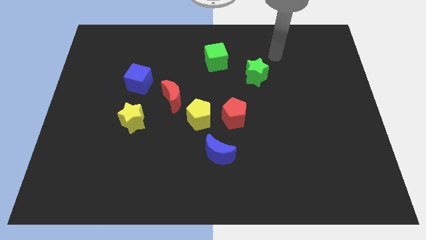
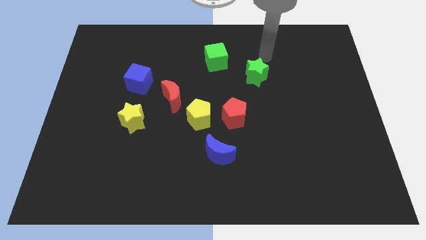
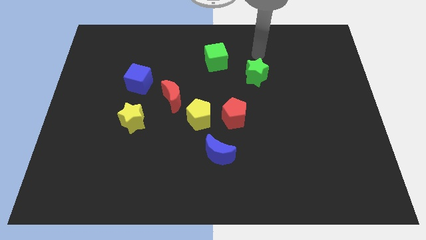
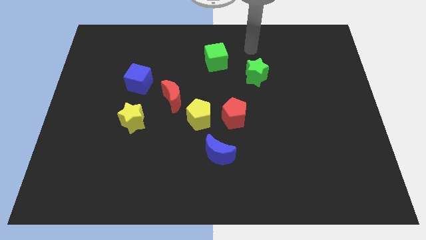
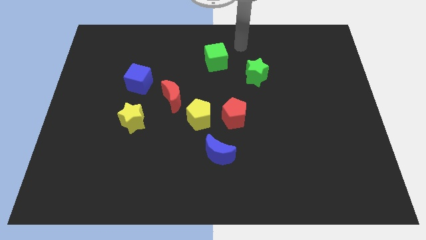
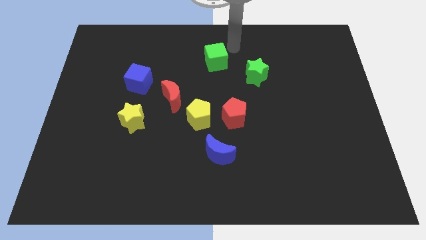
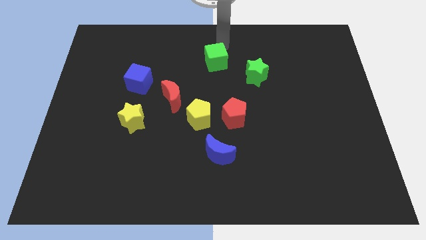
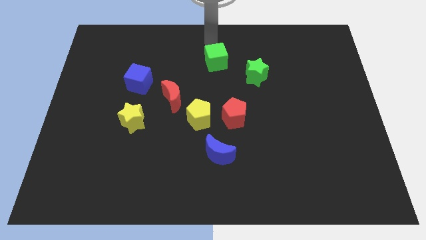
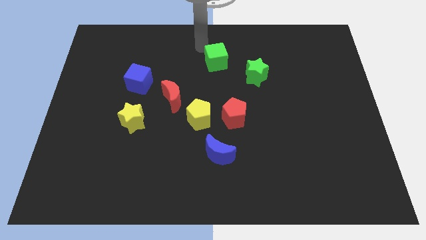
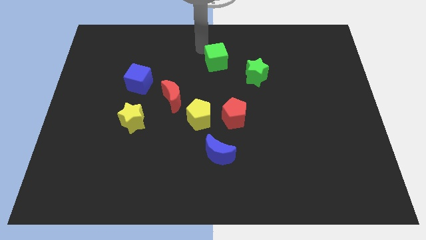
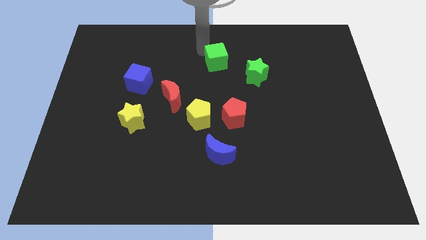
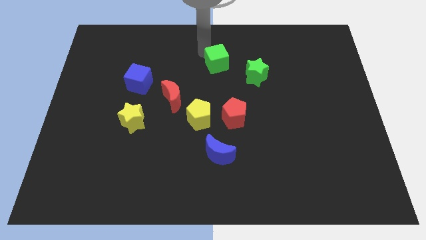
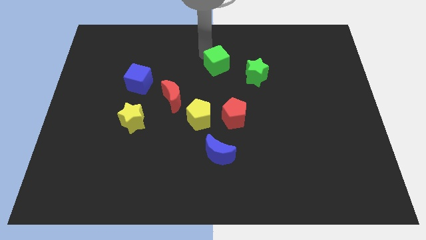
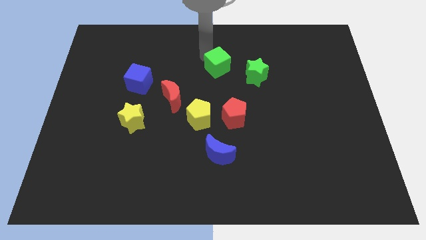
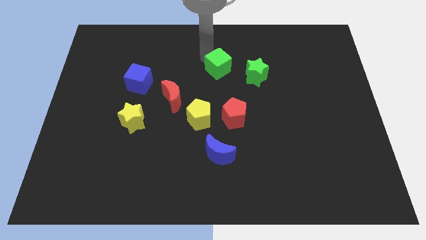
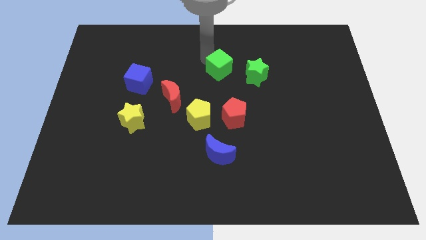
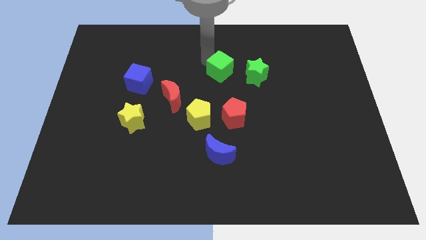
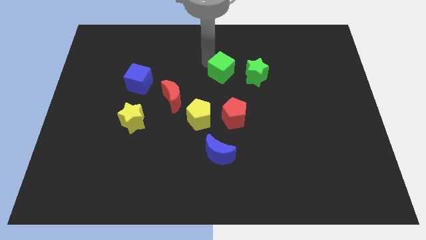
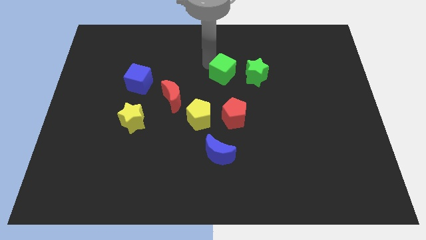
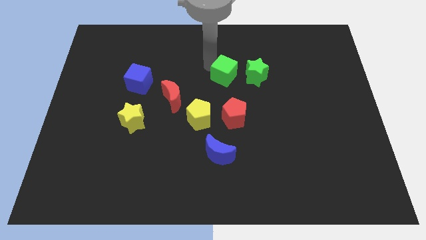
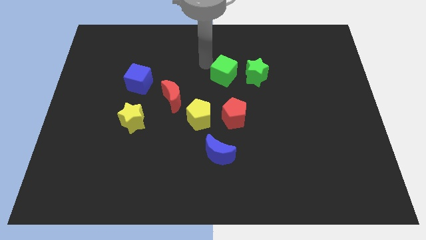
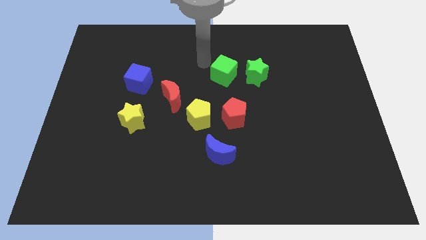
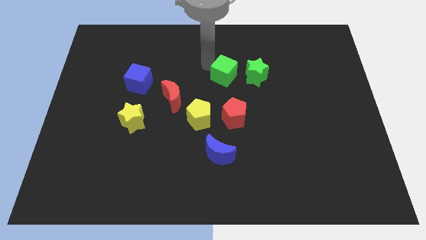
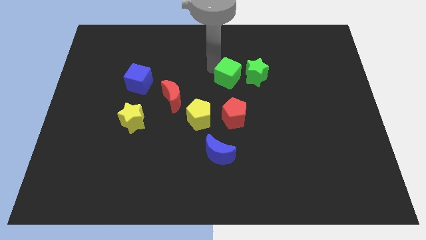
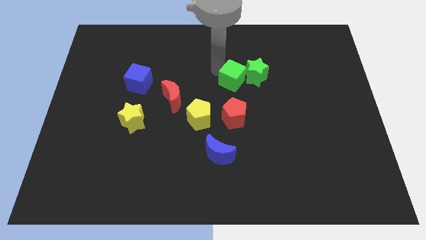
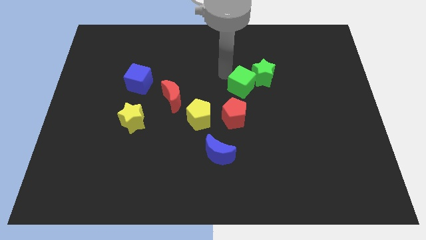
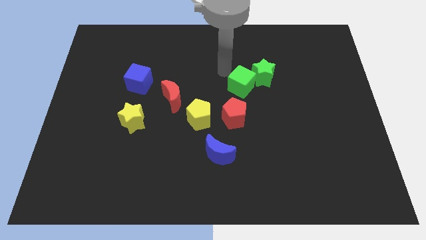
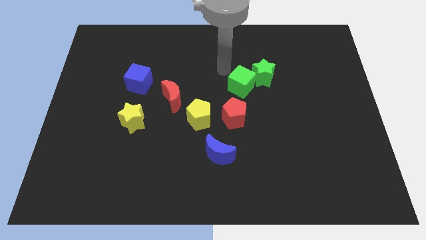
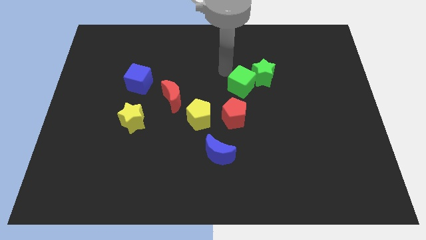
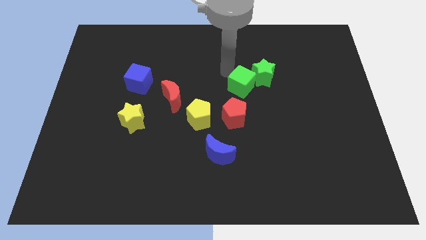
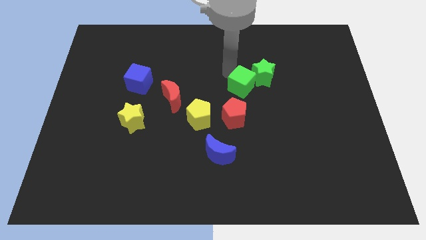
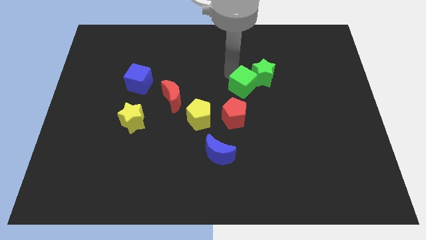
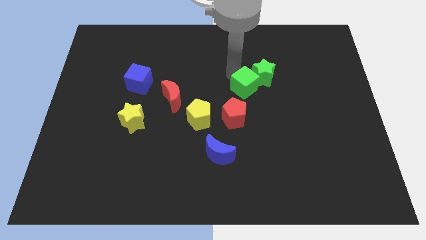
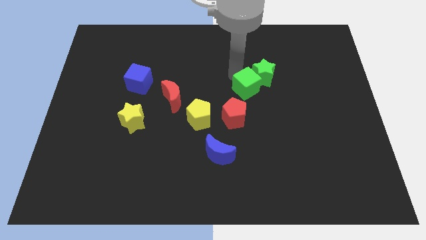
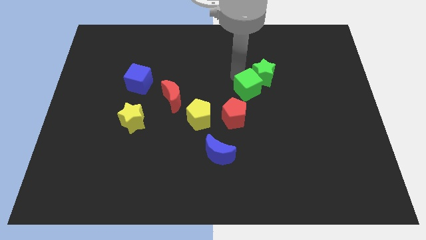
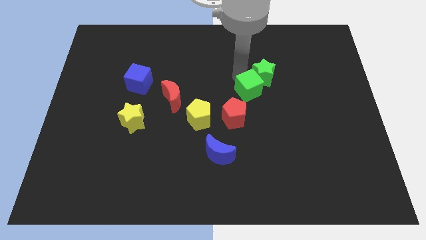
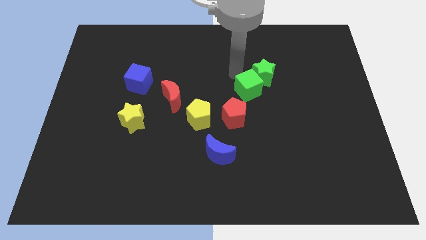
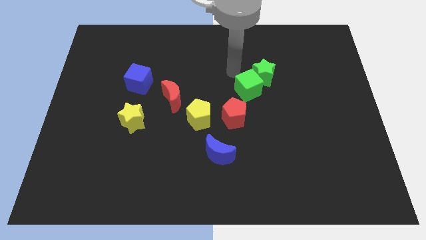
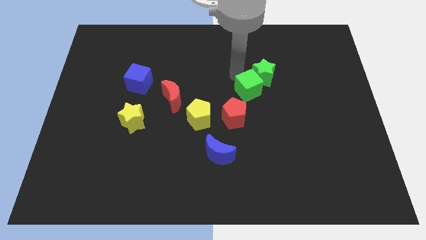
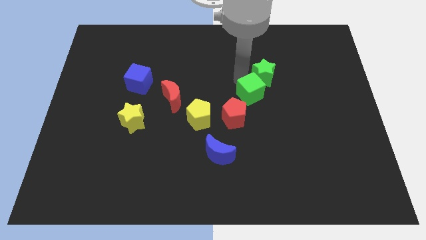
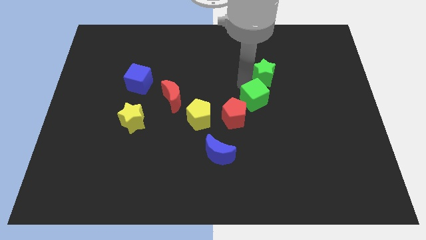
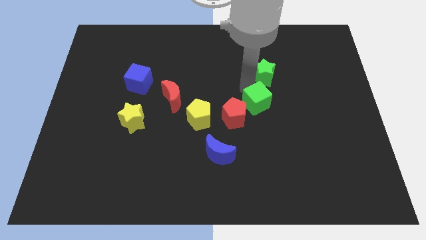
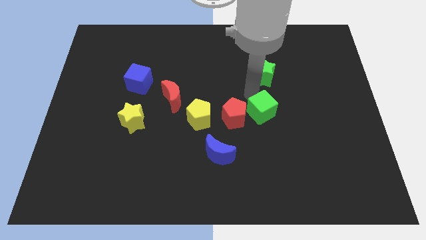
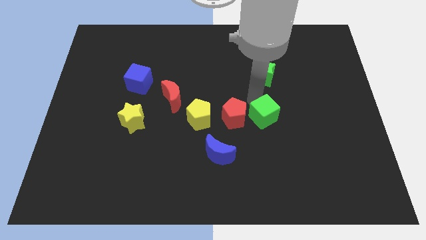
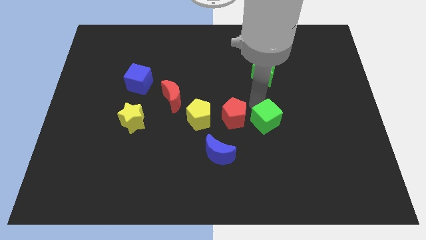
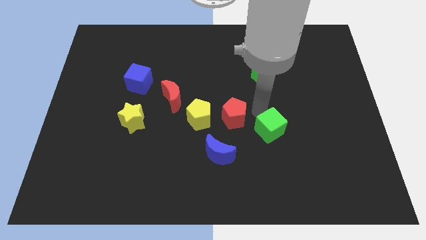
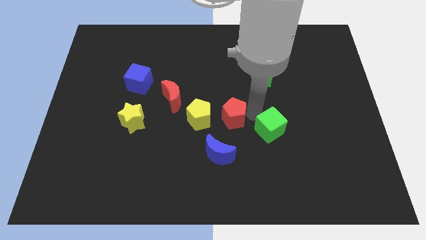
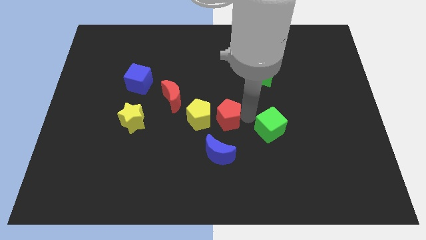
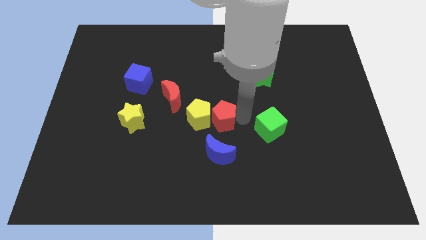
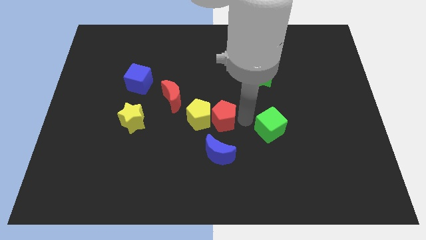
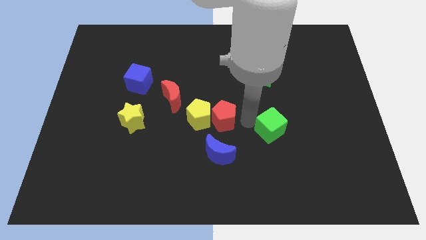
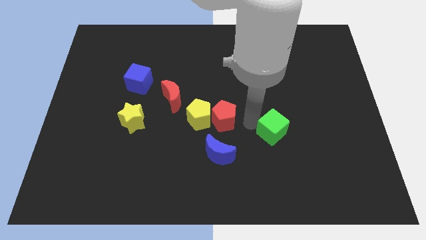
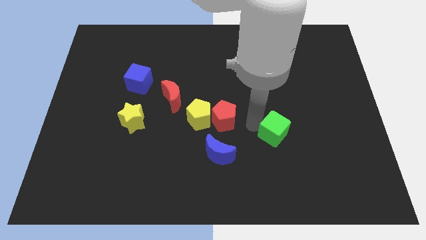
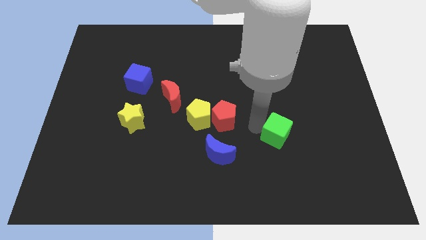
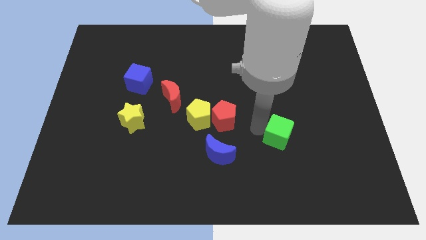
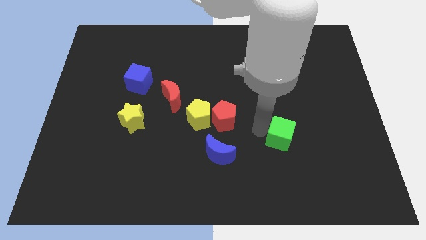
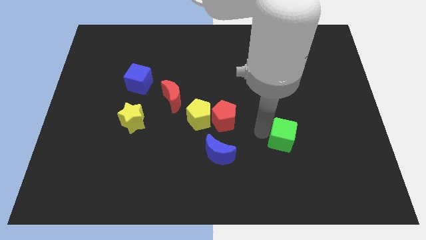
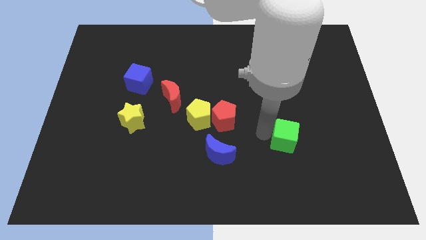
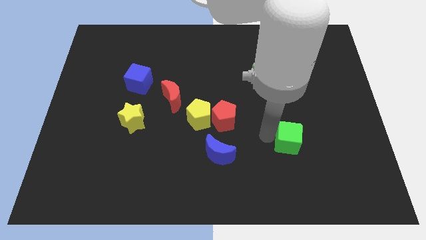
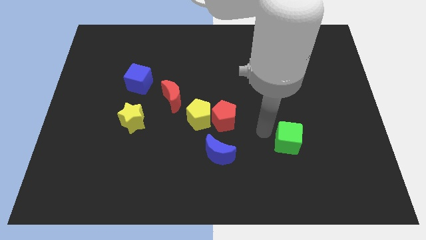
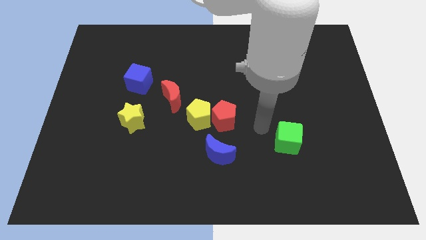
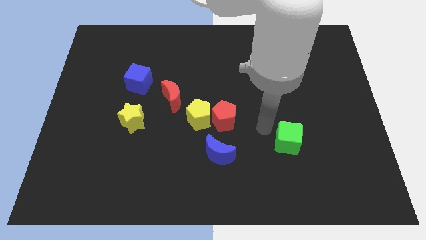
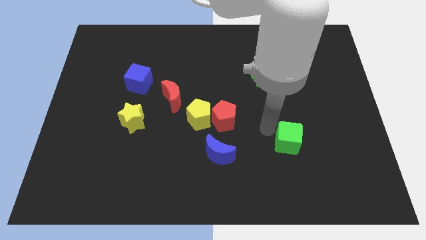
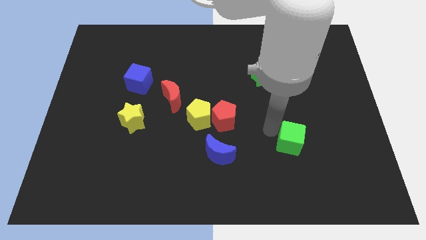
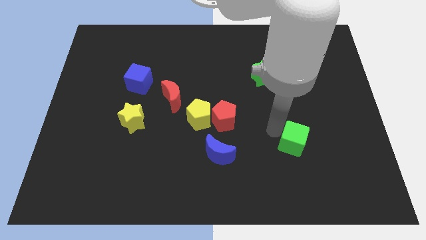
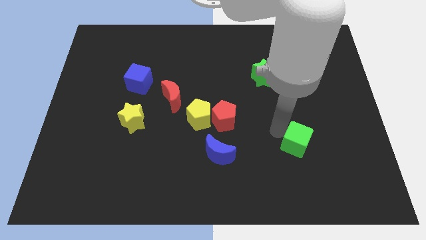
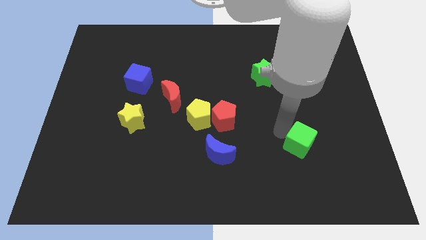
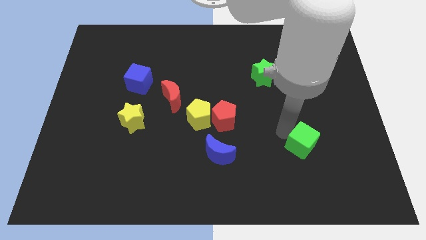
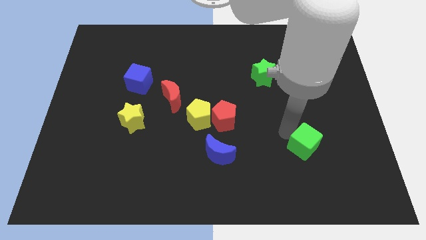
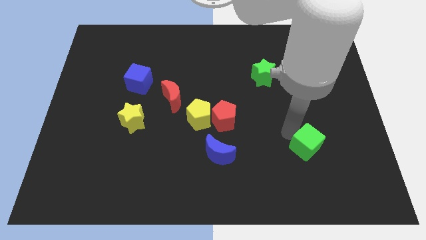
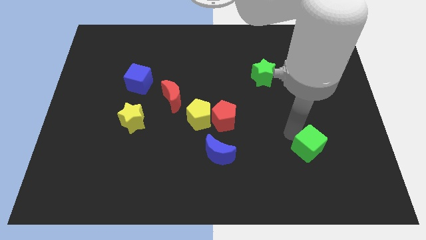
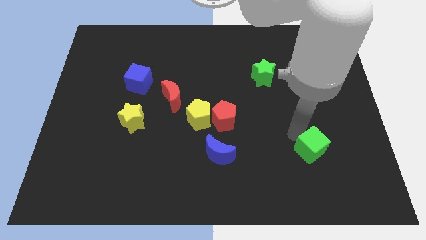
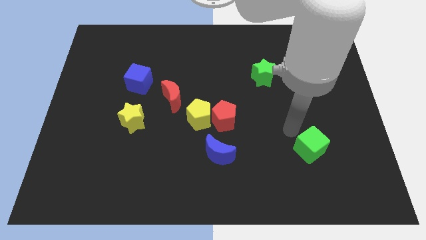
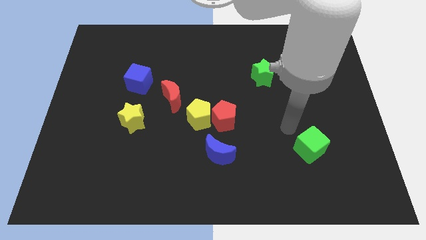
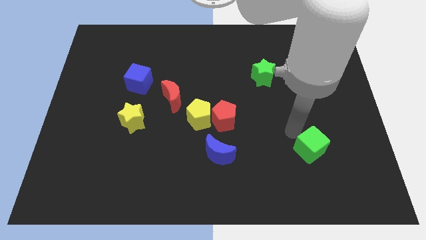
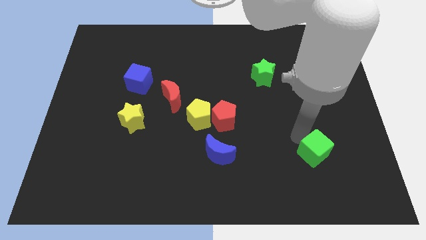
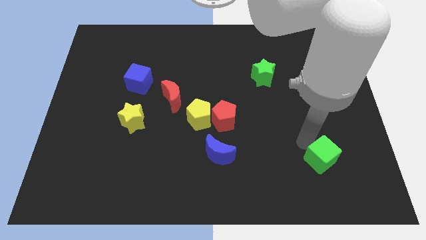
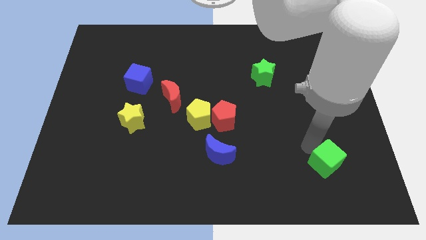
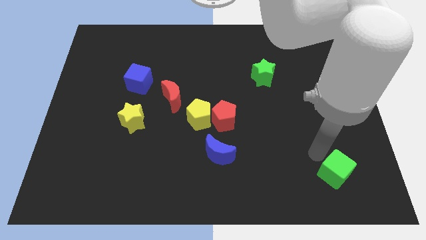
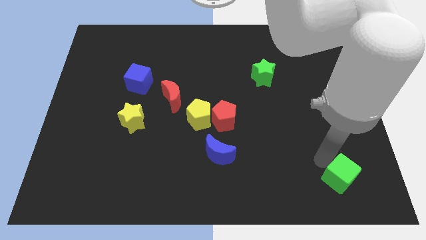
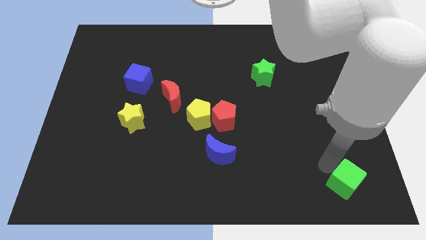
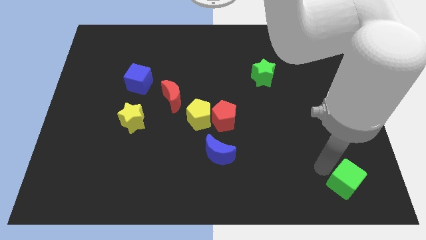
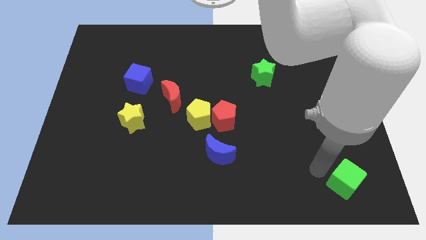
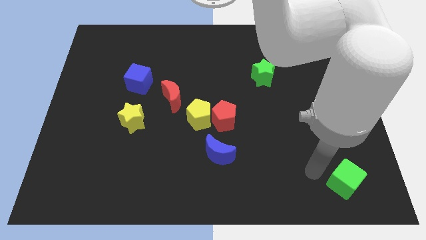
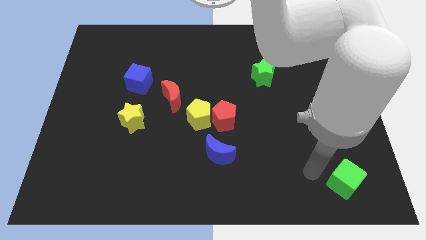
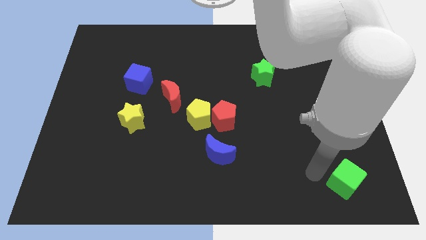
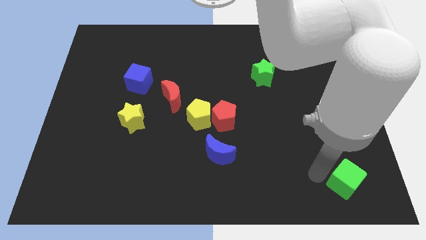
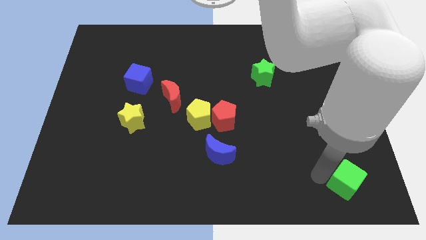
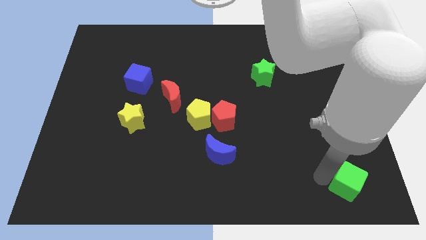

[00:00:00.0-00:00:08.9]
move the green cube to the bottom right of the board
